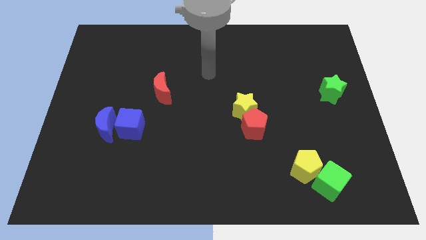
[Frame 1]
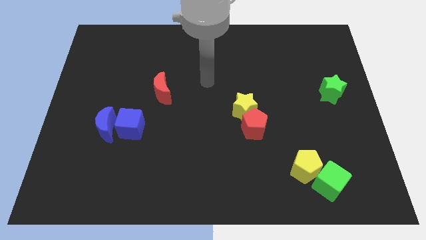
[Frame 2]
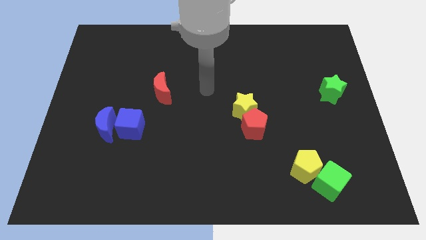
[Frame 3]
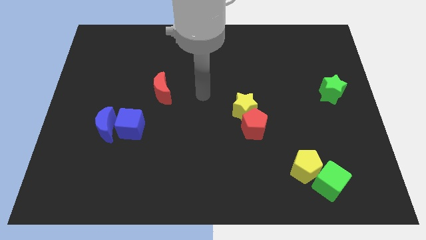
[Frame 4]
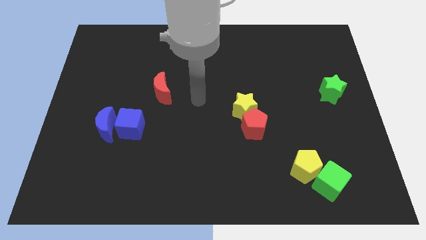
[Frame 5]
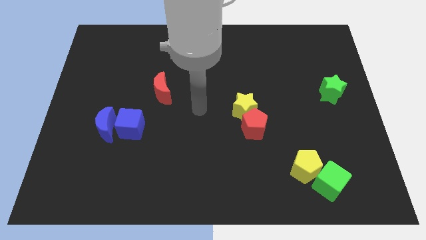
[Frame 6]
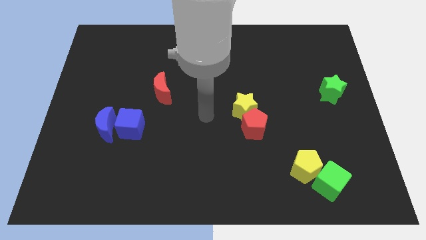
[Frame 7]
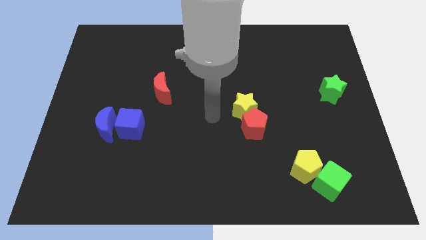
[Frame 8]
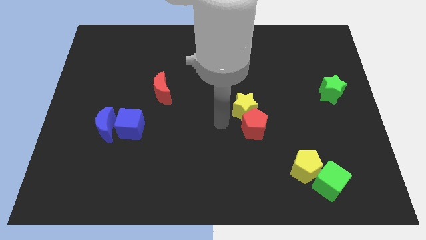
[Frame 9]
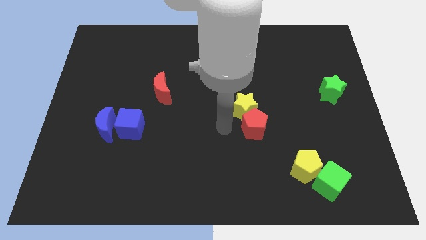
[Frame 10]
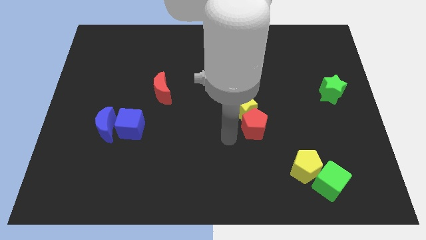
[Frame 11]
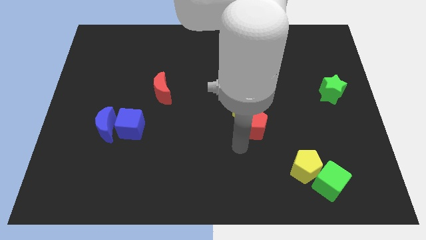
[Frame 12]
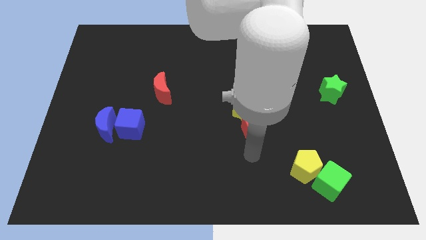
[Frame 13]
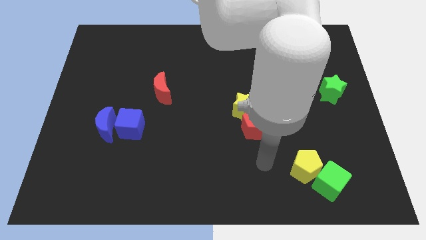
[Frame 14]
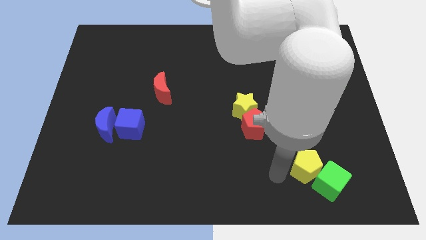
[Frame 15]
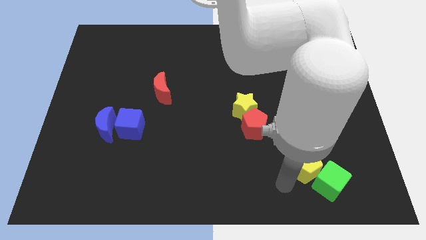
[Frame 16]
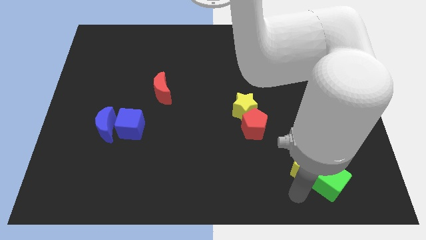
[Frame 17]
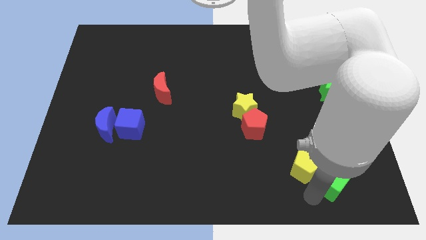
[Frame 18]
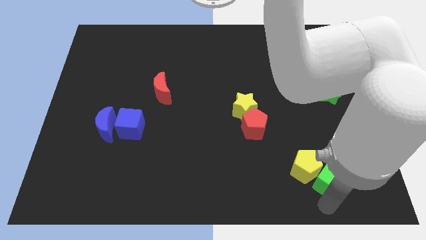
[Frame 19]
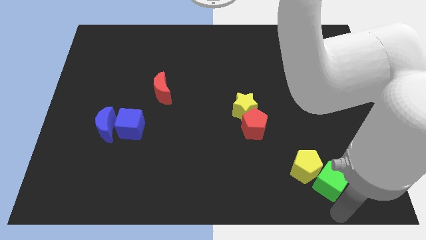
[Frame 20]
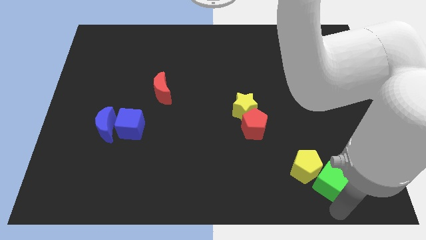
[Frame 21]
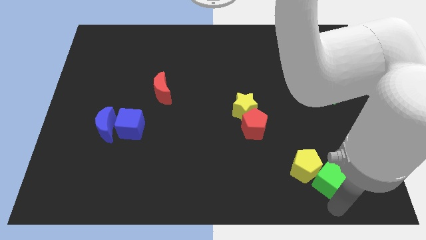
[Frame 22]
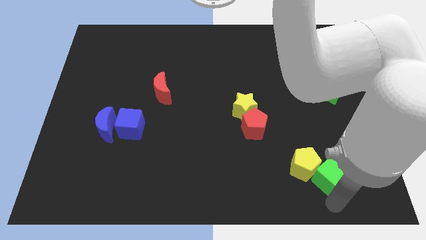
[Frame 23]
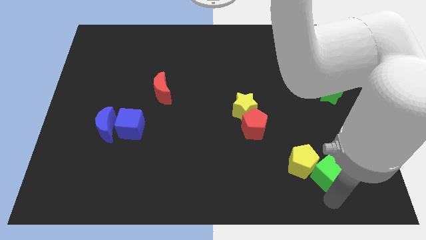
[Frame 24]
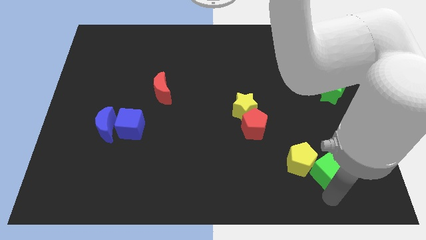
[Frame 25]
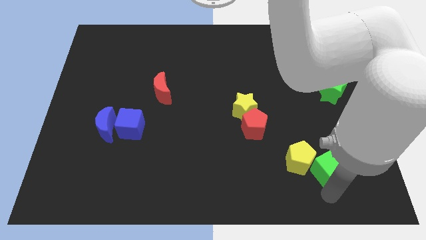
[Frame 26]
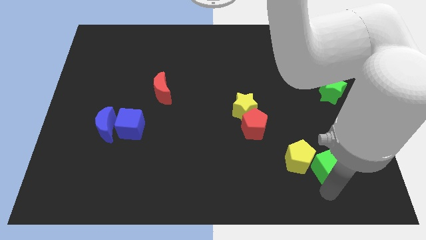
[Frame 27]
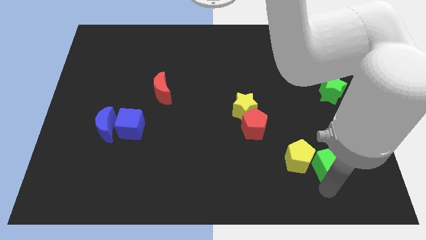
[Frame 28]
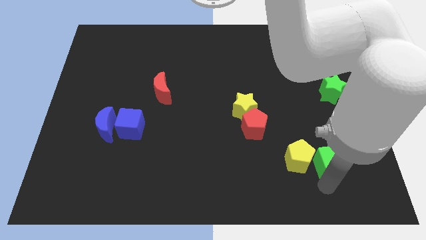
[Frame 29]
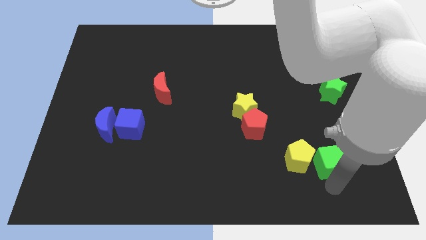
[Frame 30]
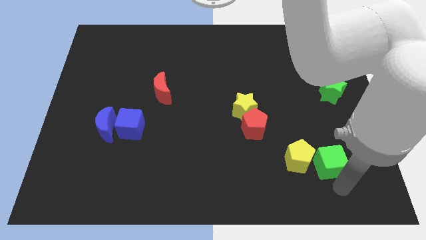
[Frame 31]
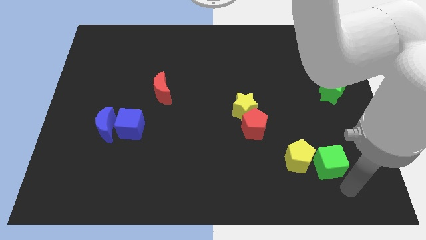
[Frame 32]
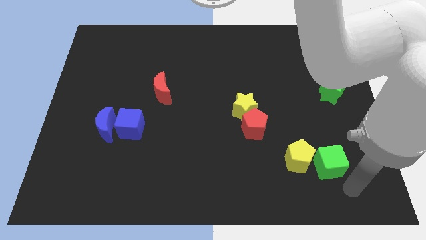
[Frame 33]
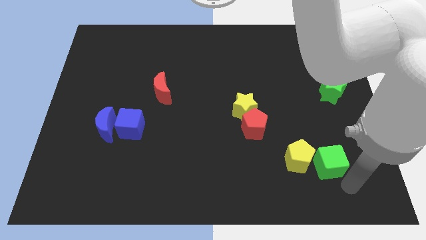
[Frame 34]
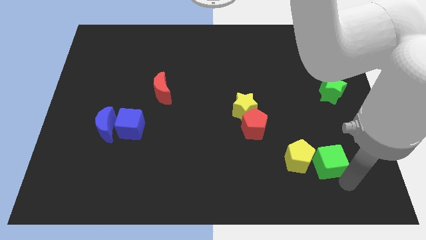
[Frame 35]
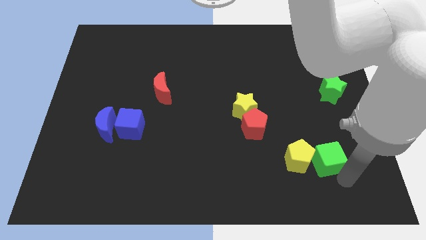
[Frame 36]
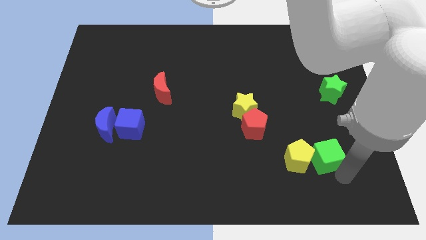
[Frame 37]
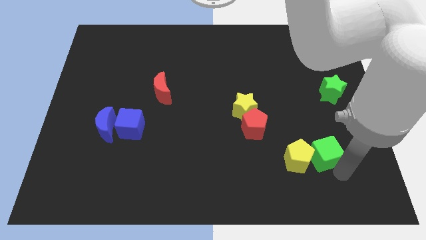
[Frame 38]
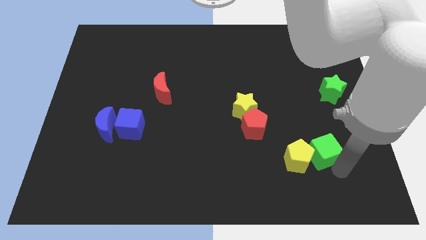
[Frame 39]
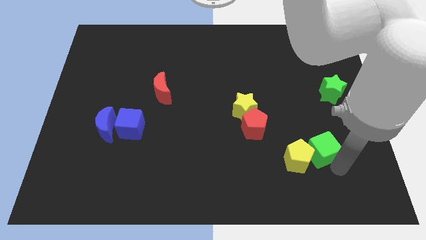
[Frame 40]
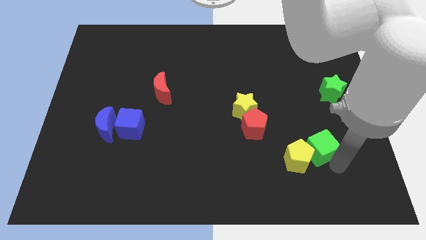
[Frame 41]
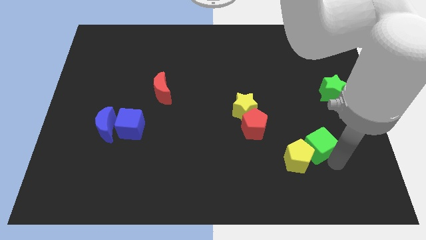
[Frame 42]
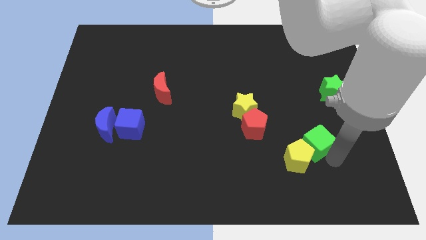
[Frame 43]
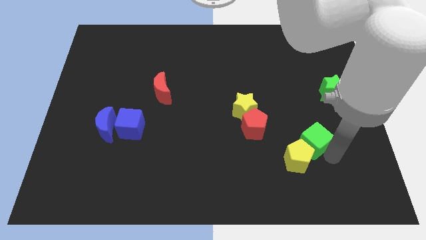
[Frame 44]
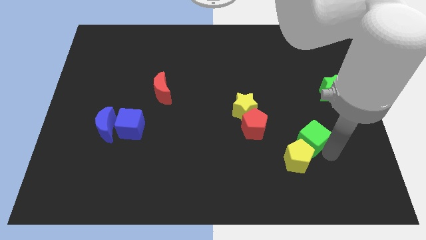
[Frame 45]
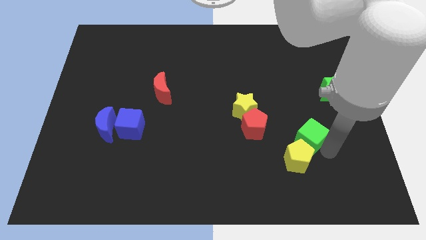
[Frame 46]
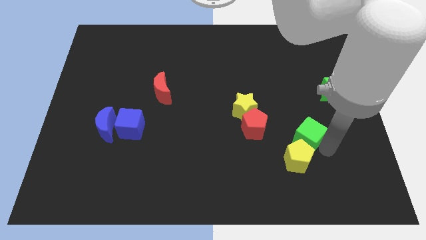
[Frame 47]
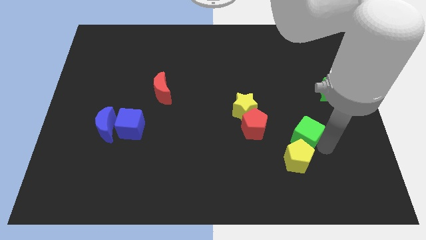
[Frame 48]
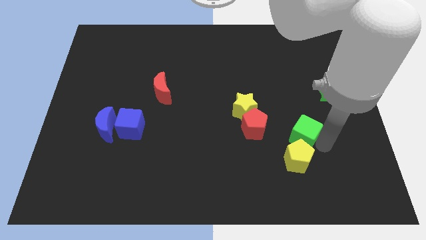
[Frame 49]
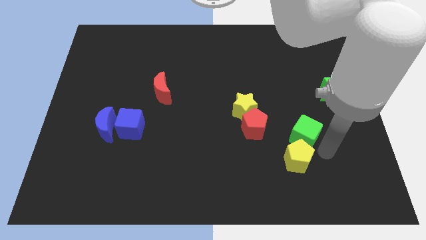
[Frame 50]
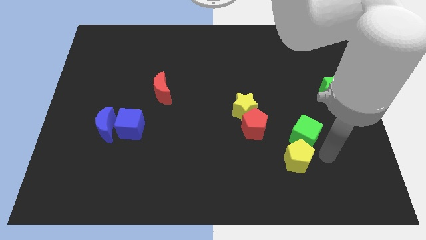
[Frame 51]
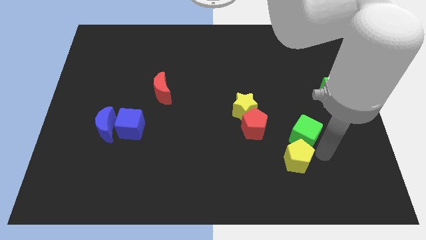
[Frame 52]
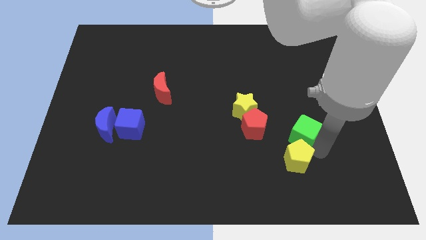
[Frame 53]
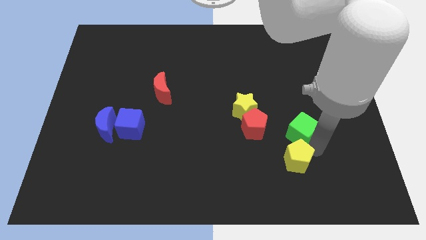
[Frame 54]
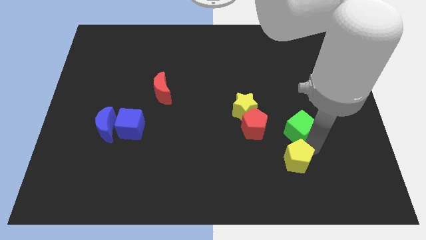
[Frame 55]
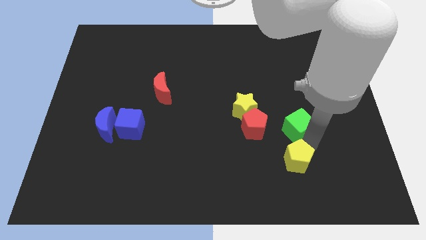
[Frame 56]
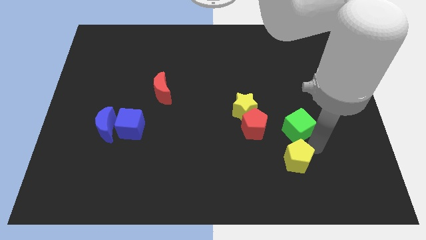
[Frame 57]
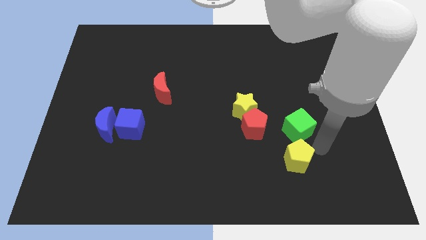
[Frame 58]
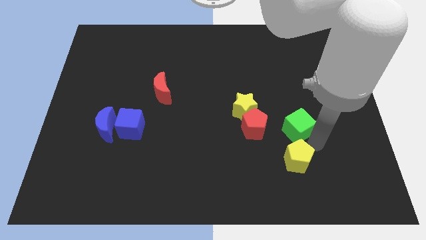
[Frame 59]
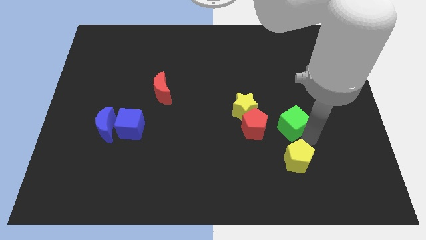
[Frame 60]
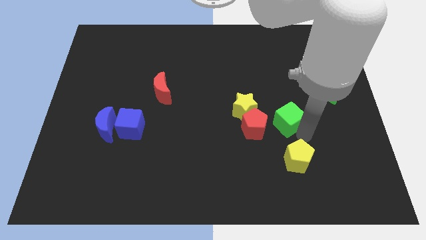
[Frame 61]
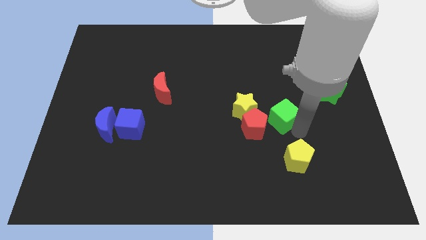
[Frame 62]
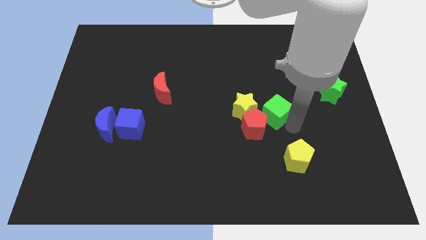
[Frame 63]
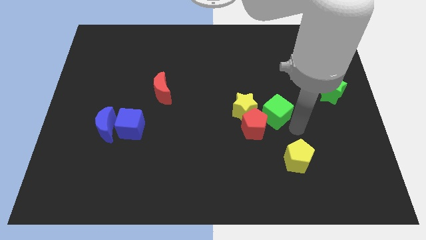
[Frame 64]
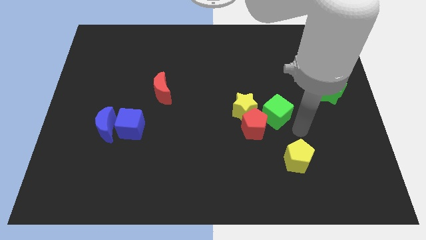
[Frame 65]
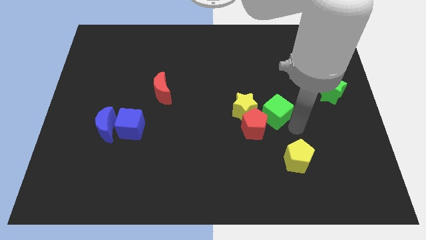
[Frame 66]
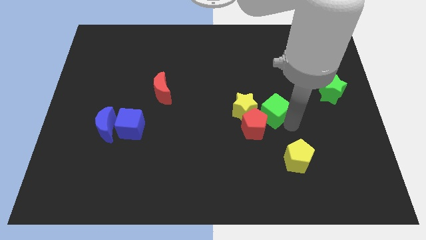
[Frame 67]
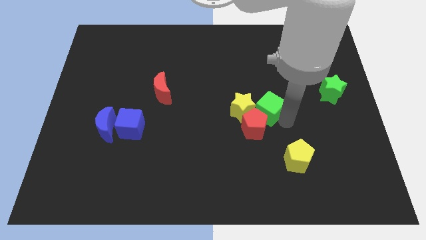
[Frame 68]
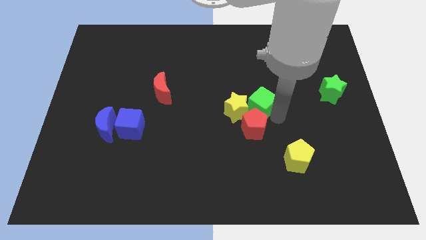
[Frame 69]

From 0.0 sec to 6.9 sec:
move the green cube up and to the left diagonally

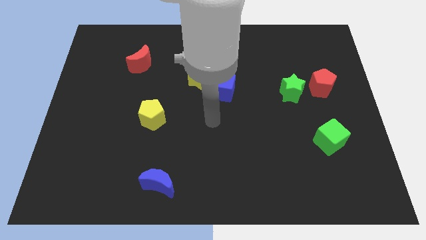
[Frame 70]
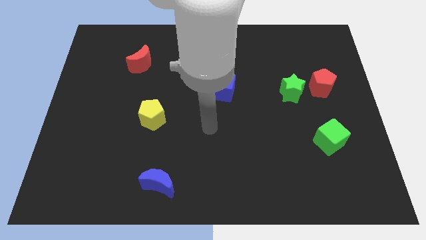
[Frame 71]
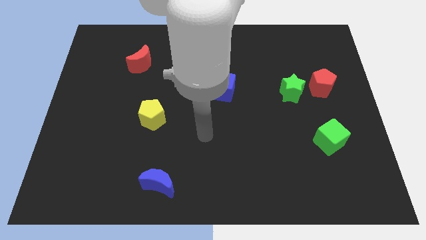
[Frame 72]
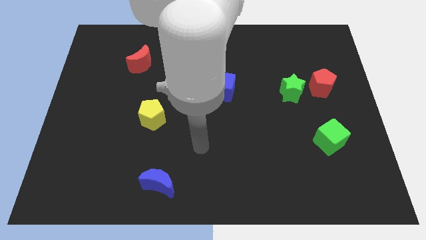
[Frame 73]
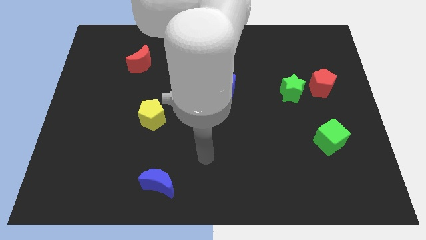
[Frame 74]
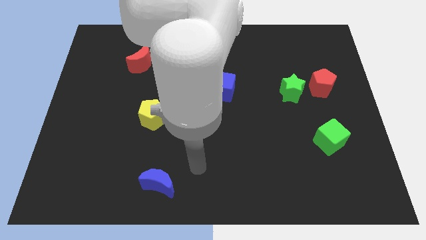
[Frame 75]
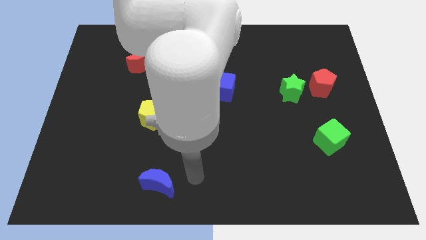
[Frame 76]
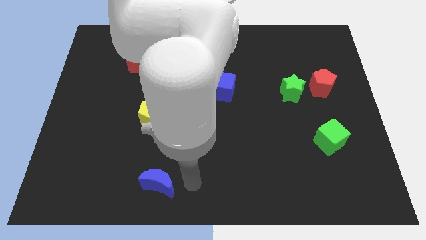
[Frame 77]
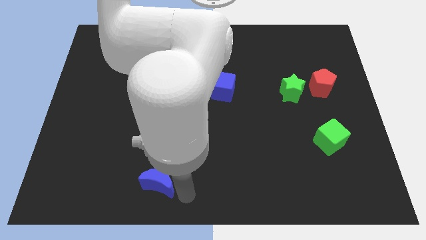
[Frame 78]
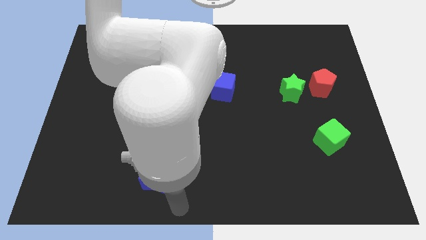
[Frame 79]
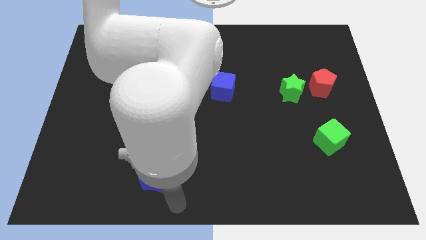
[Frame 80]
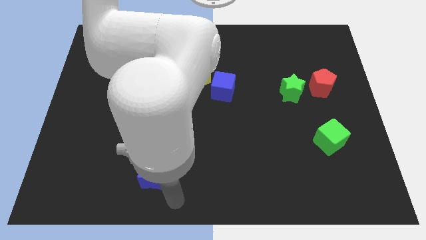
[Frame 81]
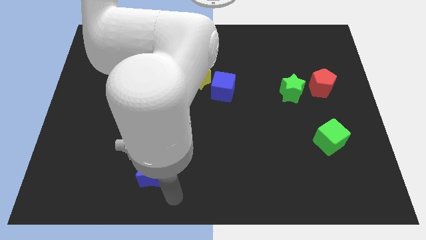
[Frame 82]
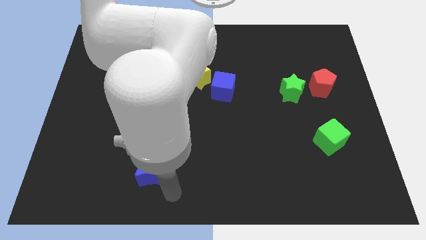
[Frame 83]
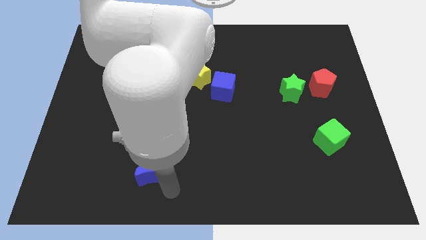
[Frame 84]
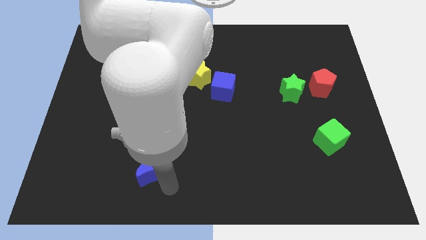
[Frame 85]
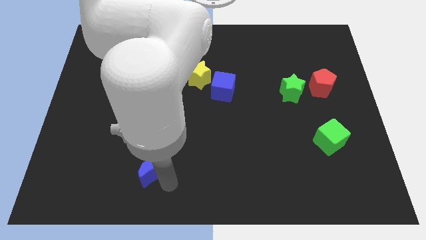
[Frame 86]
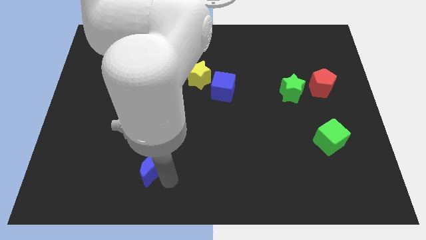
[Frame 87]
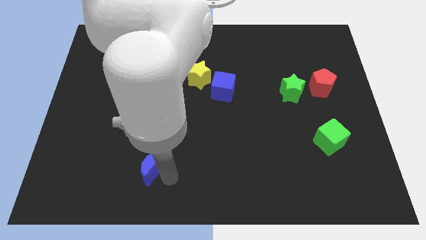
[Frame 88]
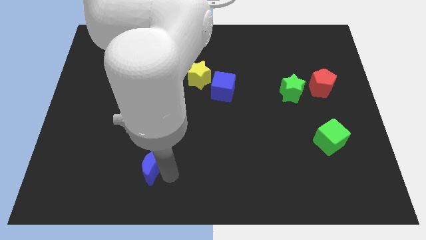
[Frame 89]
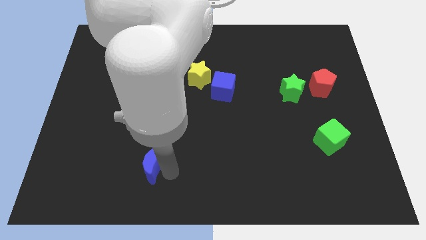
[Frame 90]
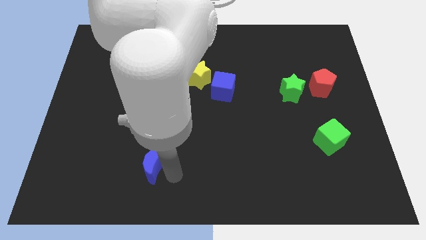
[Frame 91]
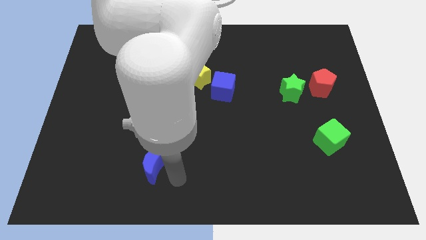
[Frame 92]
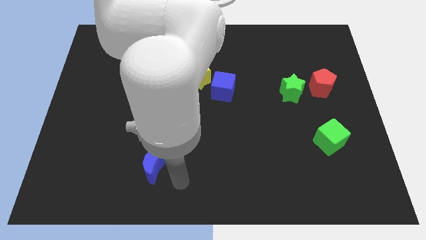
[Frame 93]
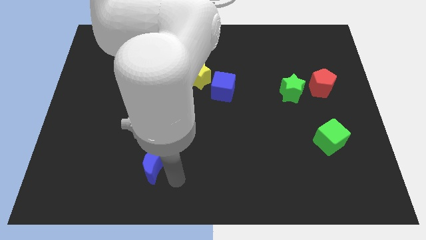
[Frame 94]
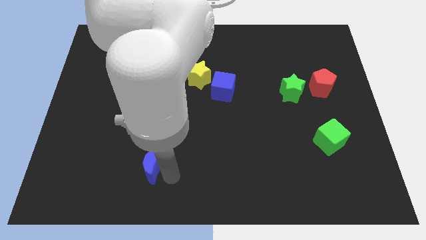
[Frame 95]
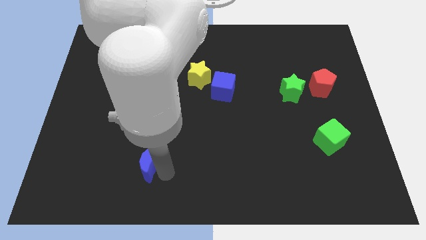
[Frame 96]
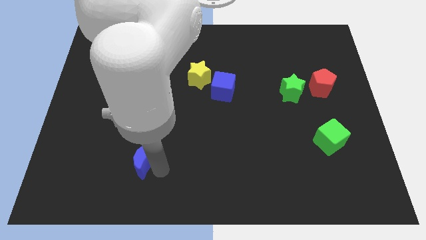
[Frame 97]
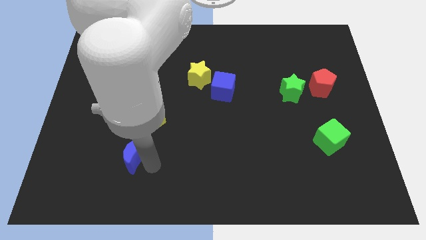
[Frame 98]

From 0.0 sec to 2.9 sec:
slightly slide the blue moon diagonally up and to the left
